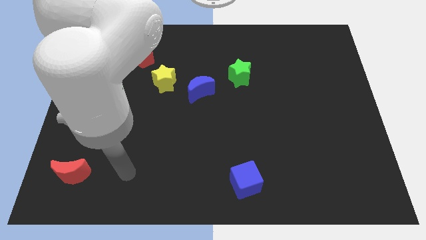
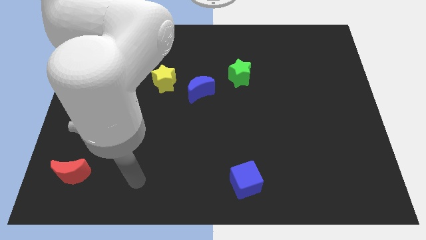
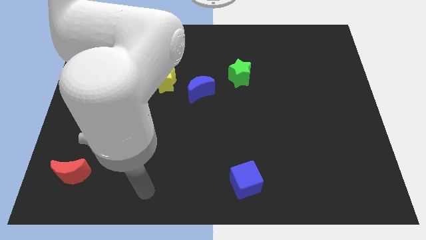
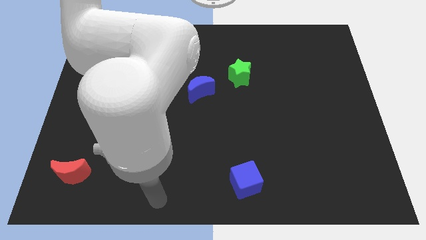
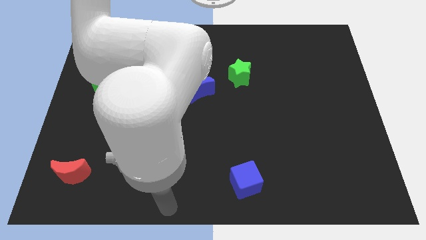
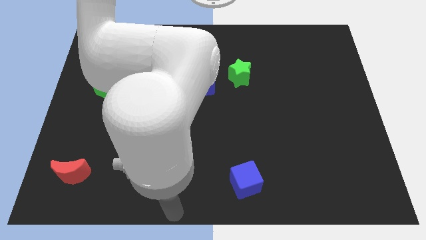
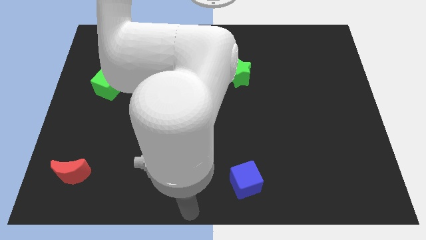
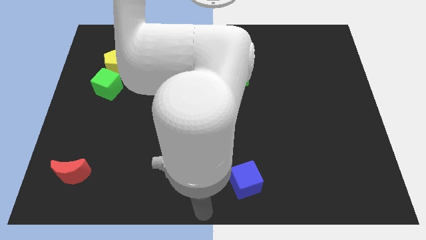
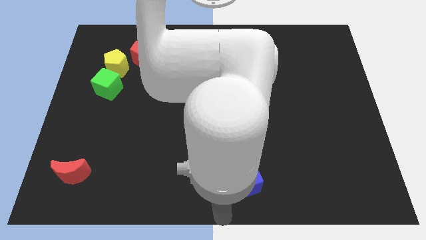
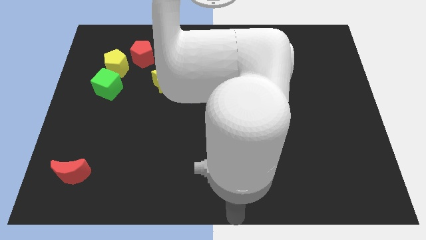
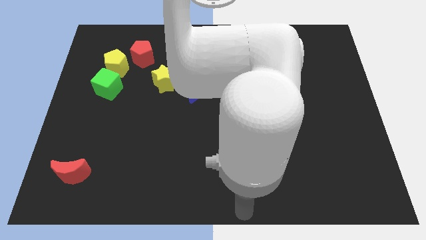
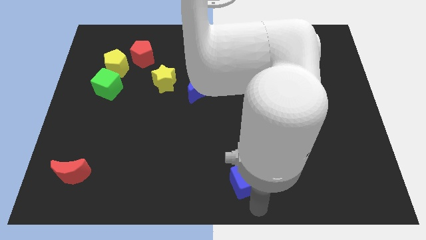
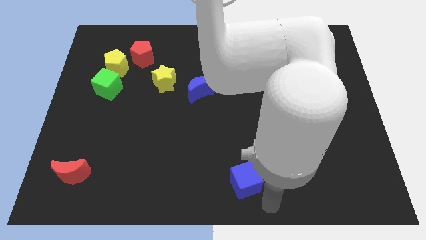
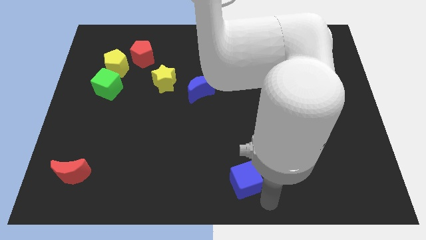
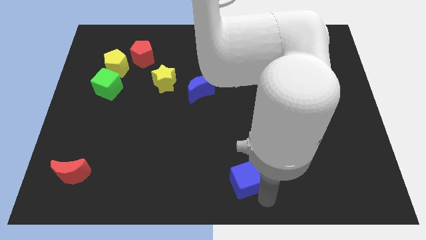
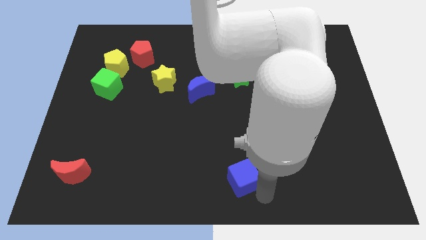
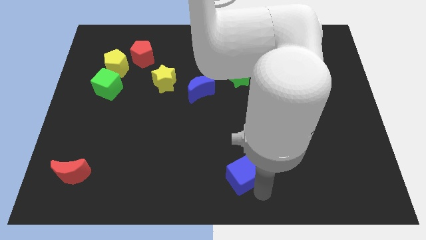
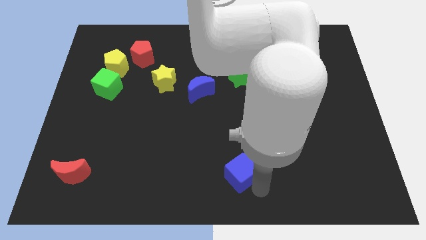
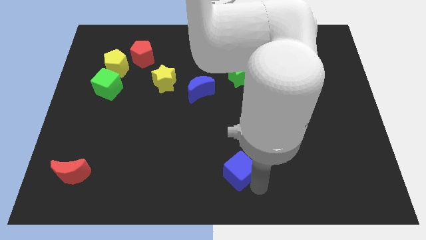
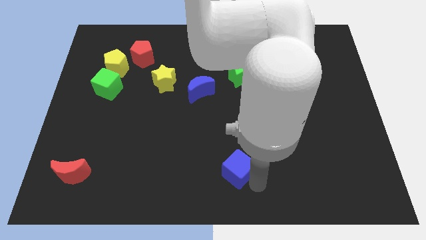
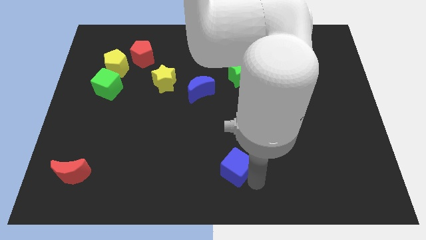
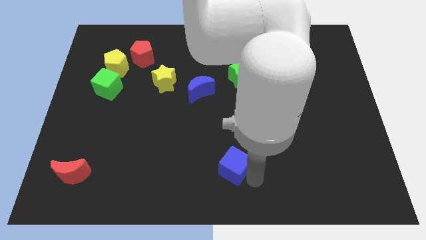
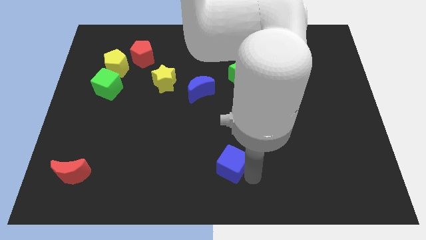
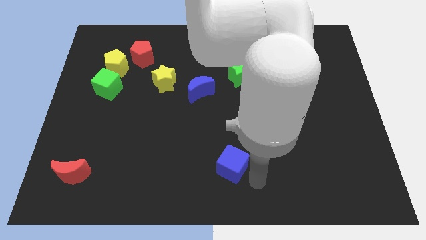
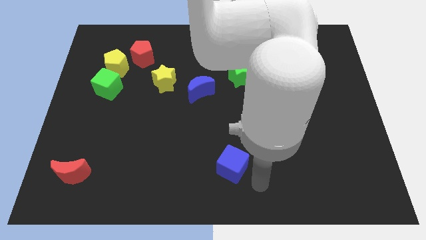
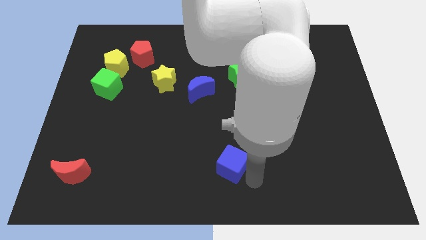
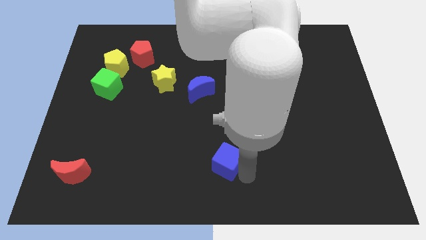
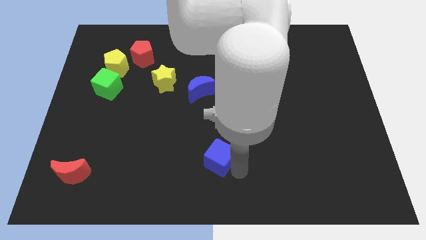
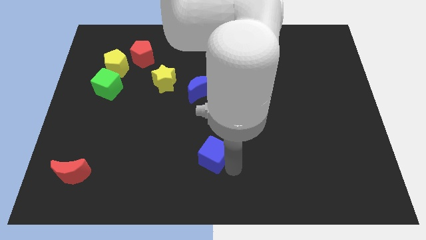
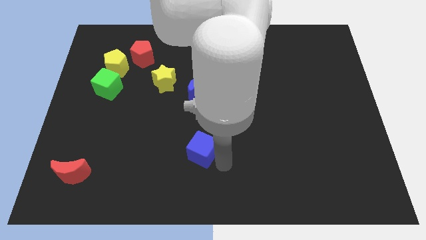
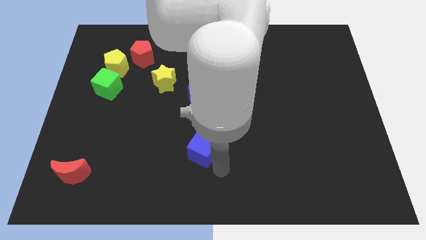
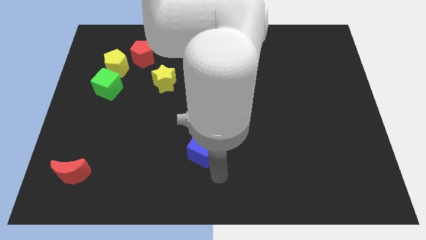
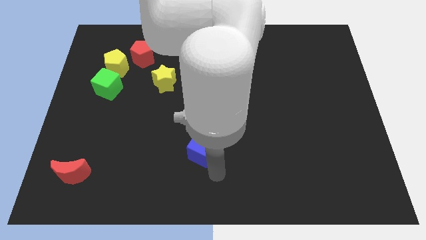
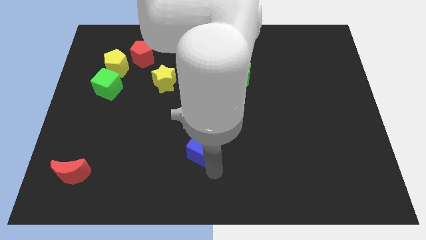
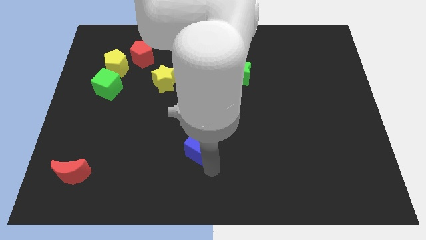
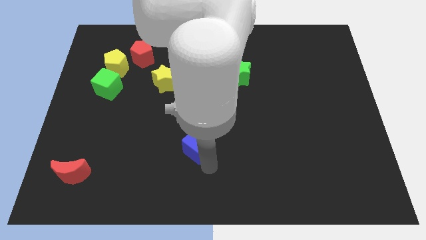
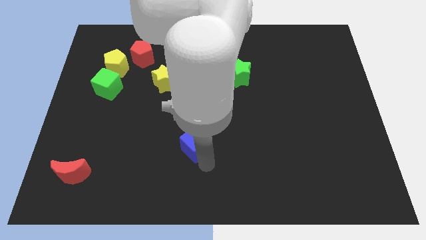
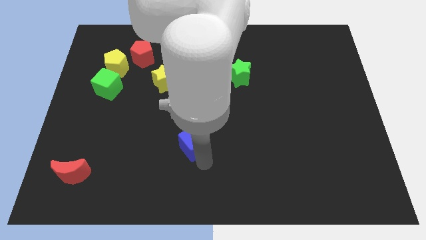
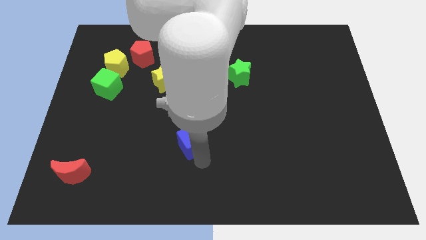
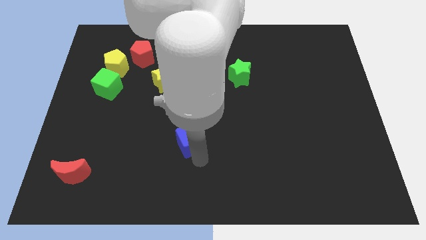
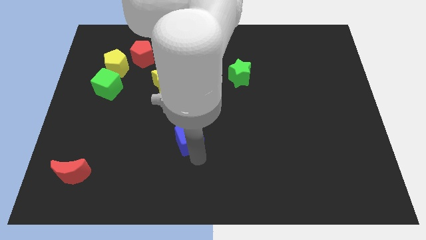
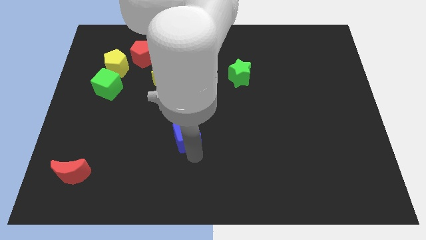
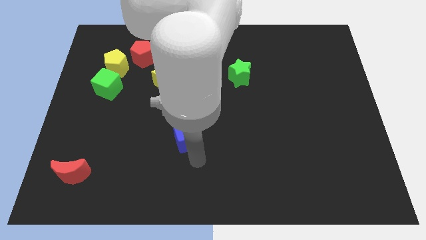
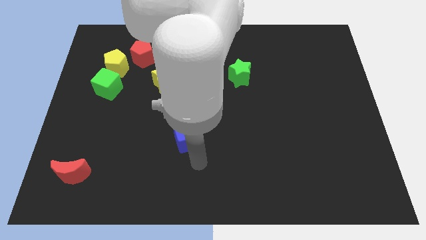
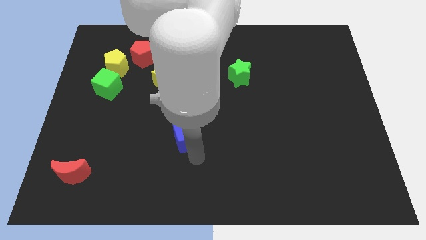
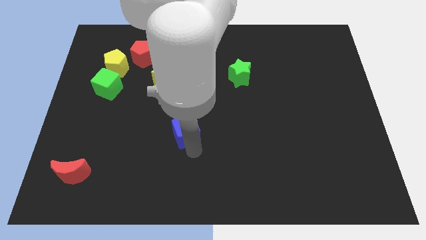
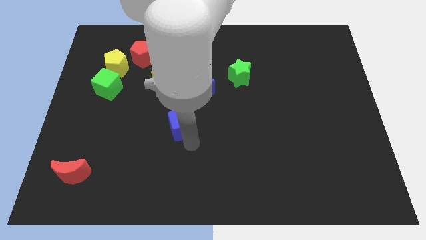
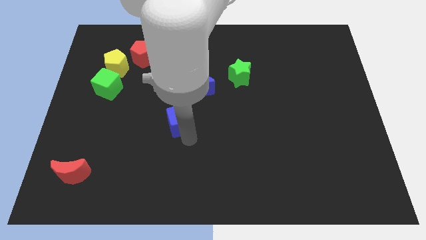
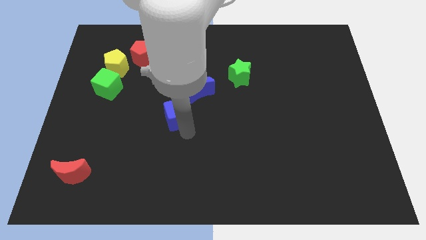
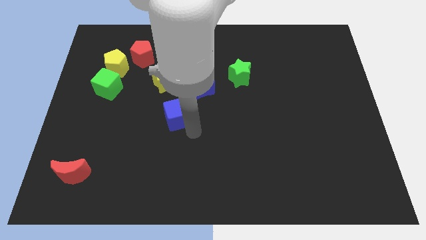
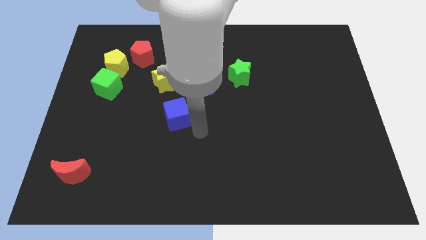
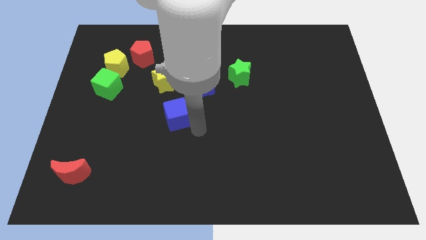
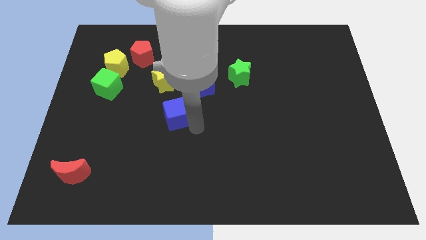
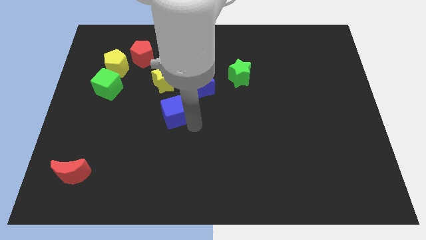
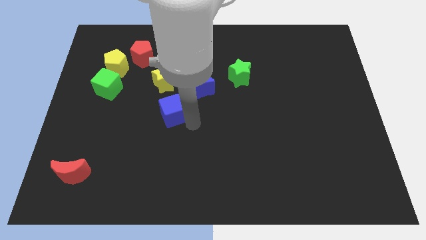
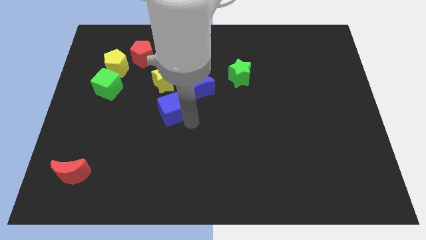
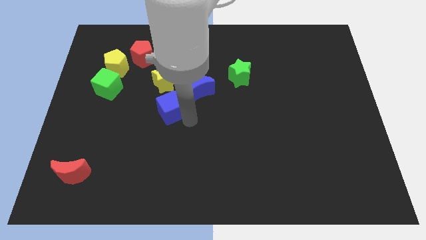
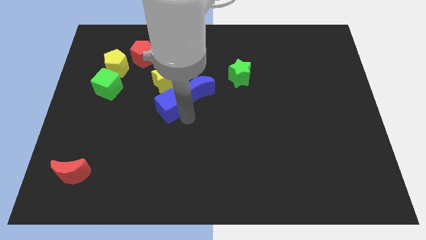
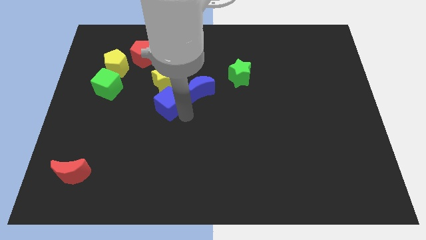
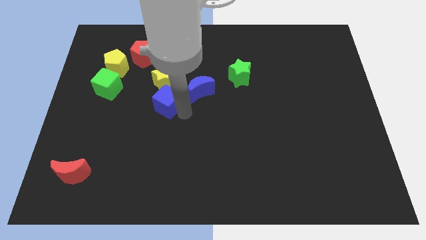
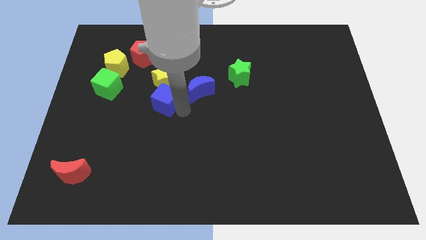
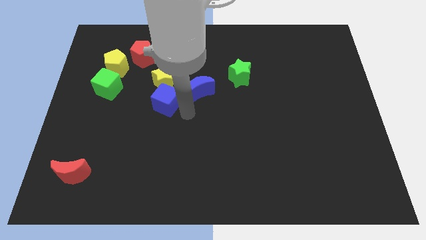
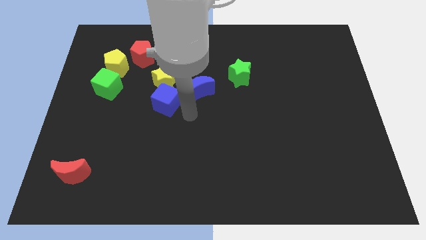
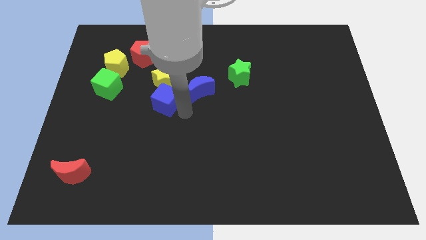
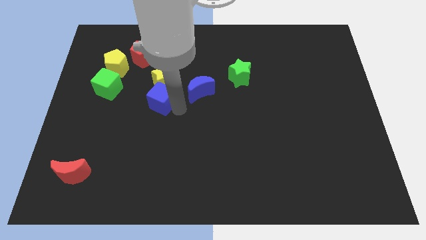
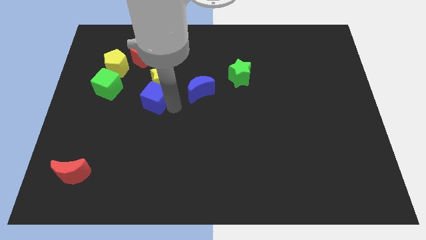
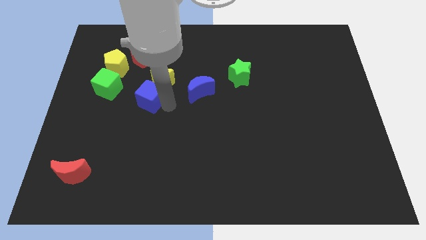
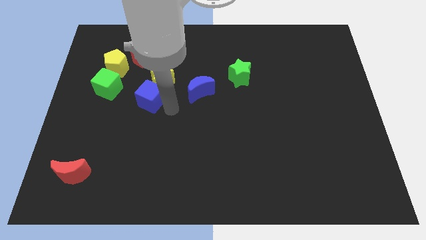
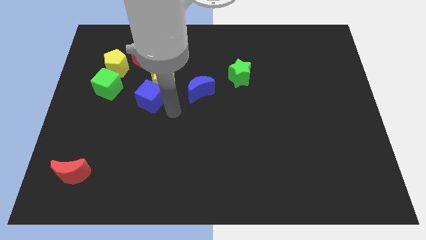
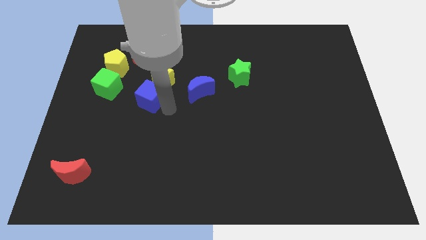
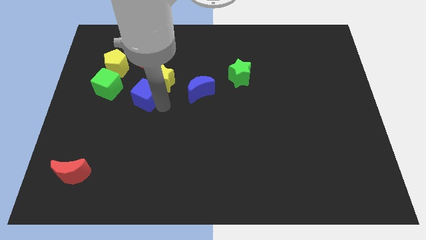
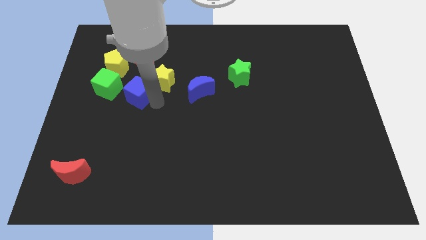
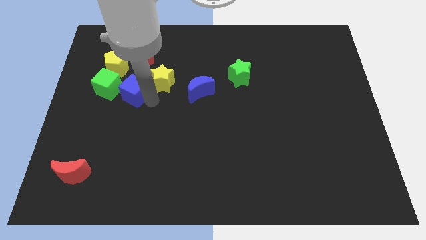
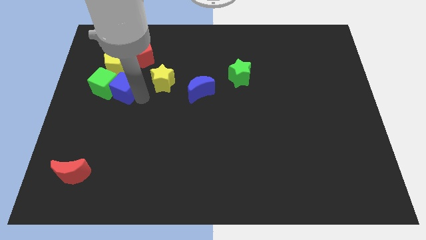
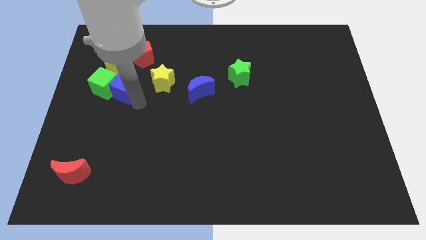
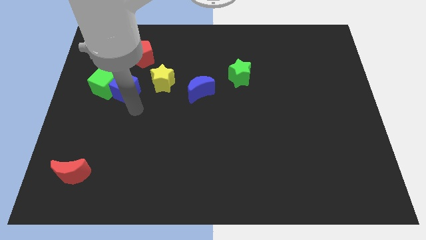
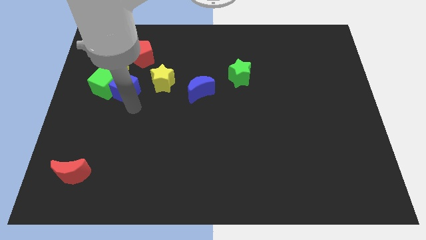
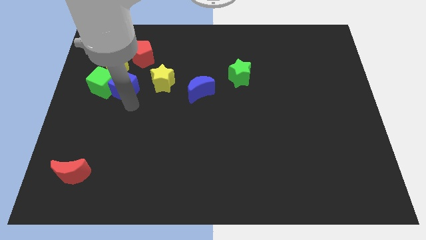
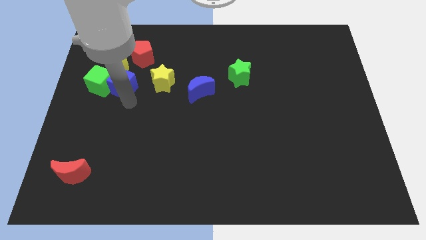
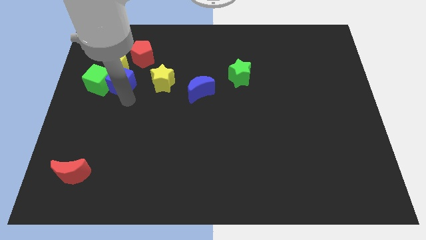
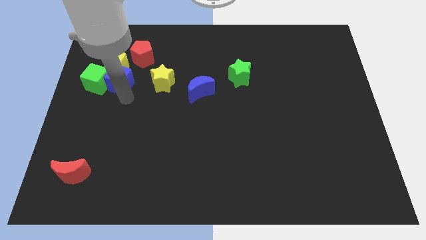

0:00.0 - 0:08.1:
put the blue cube close to the yellow pentagon
